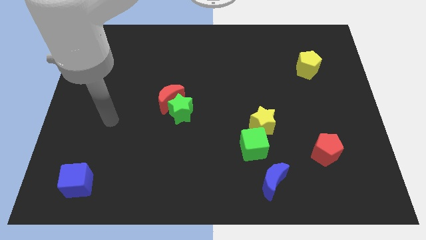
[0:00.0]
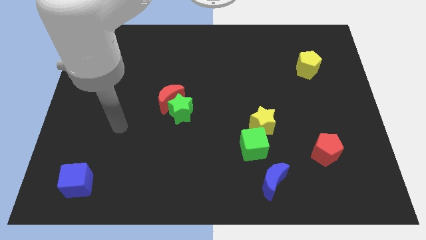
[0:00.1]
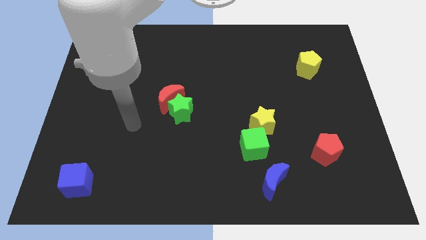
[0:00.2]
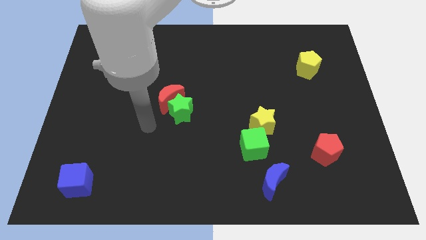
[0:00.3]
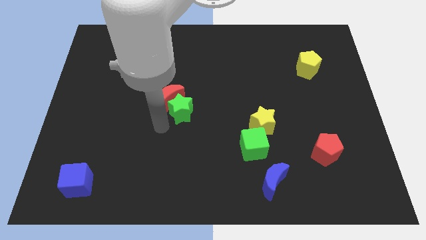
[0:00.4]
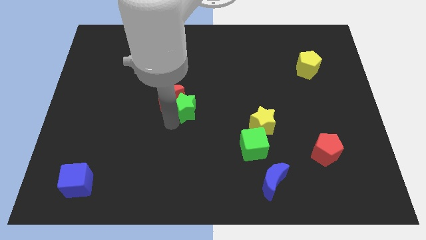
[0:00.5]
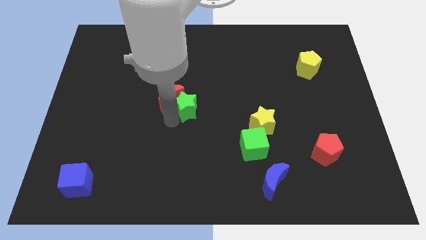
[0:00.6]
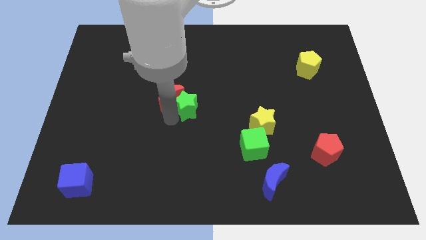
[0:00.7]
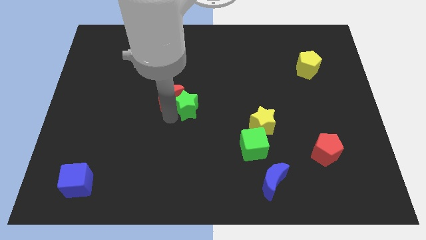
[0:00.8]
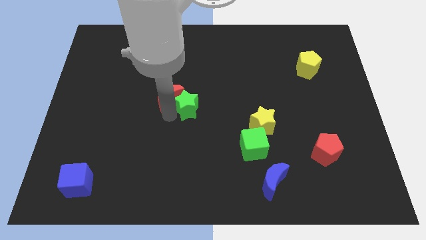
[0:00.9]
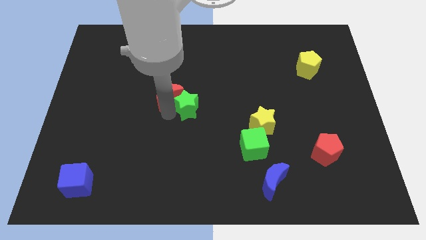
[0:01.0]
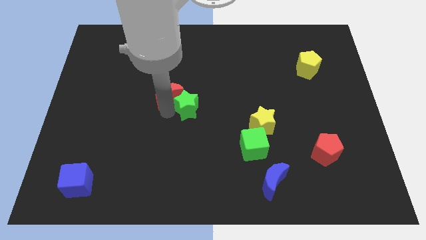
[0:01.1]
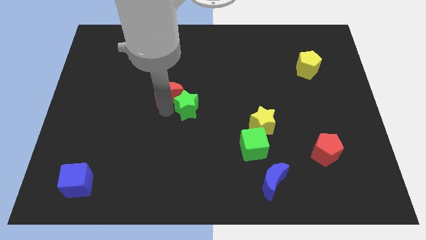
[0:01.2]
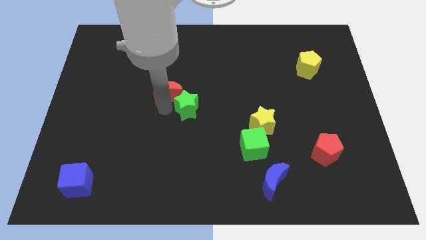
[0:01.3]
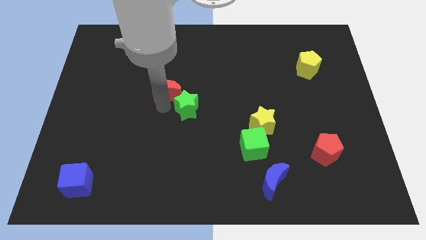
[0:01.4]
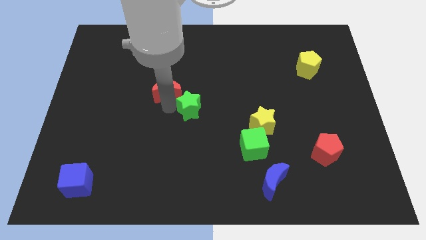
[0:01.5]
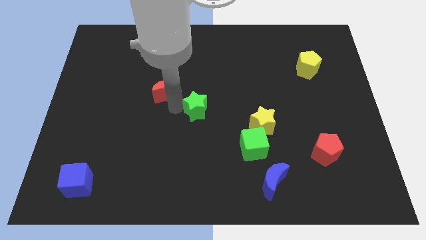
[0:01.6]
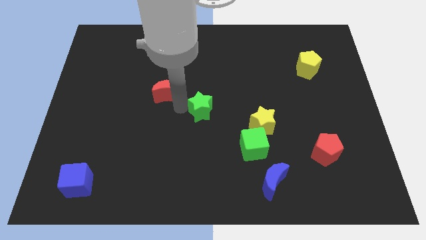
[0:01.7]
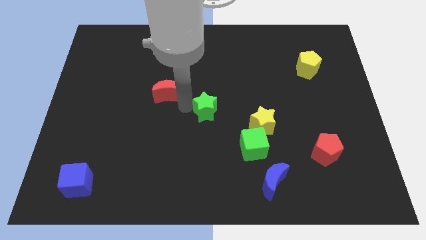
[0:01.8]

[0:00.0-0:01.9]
move the red moon away from the green star

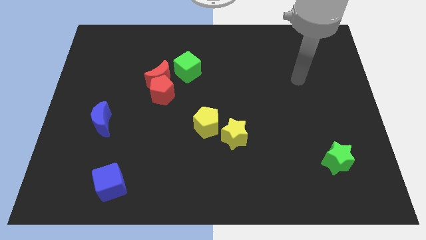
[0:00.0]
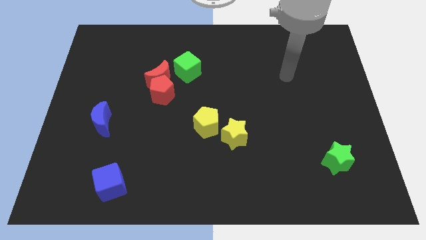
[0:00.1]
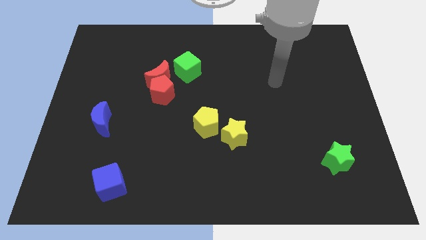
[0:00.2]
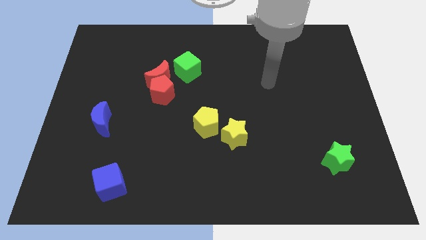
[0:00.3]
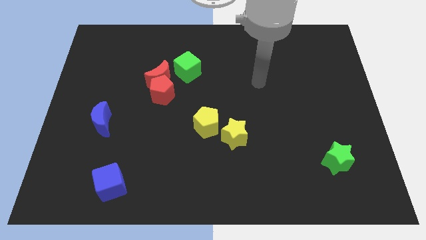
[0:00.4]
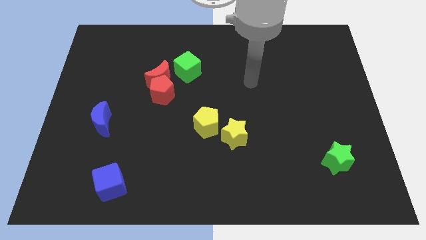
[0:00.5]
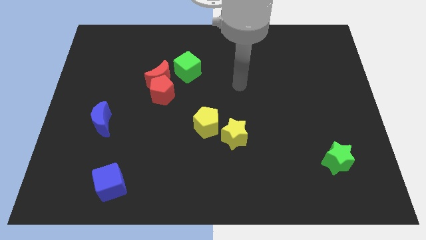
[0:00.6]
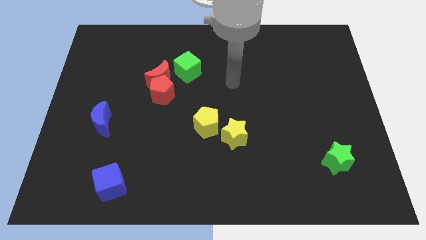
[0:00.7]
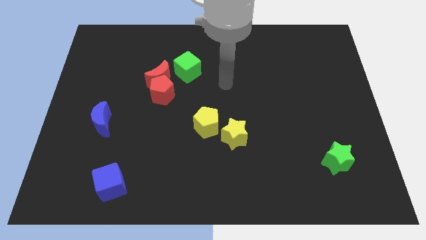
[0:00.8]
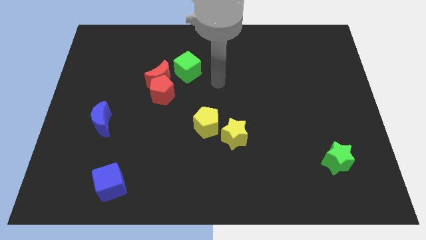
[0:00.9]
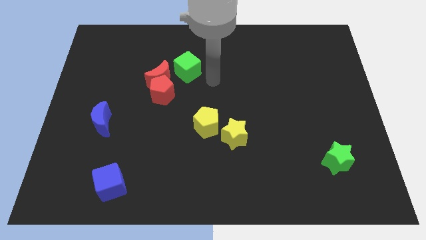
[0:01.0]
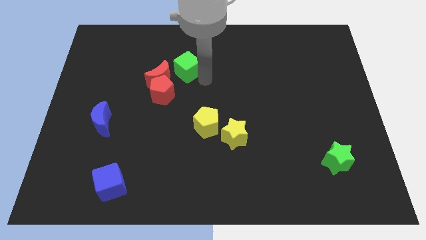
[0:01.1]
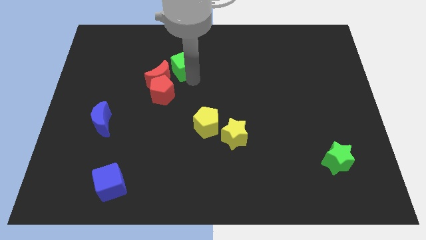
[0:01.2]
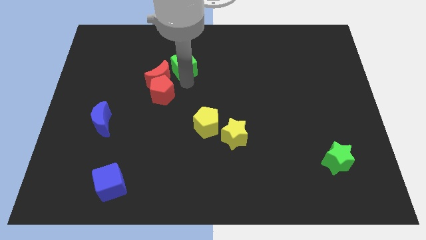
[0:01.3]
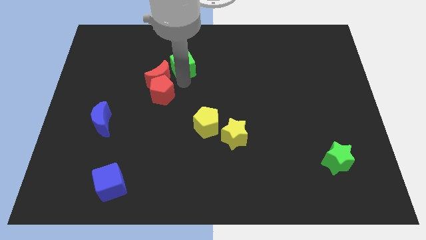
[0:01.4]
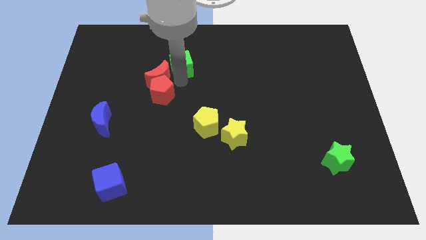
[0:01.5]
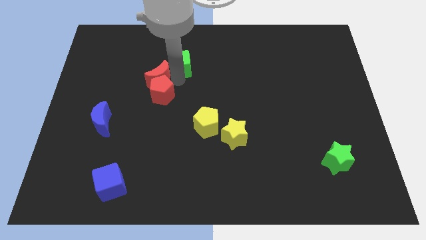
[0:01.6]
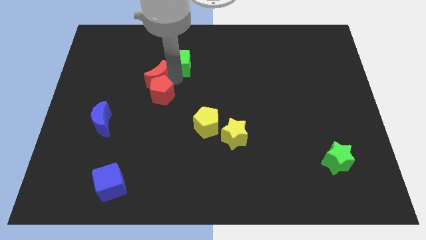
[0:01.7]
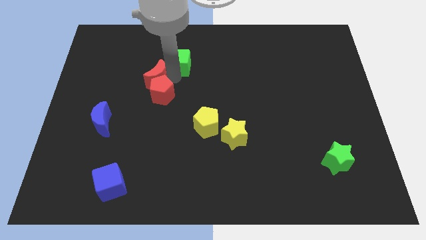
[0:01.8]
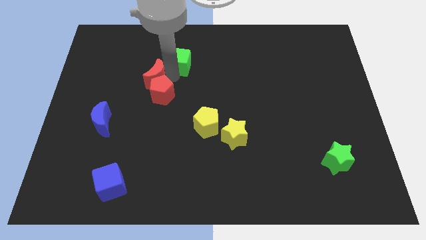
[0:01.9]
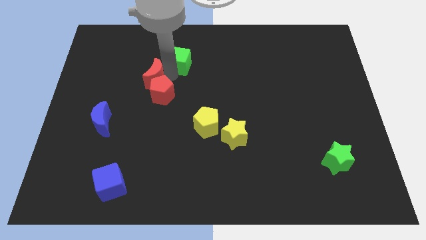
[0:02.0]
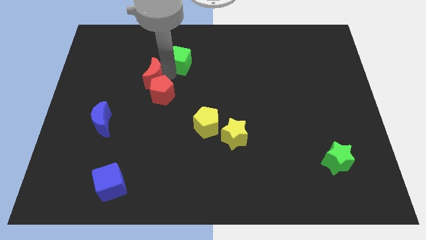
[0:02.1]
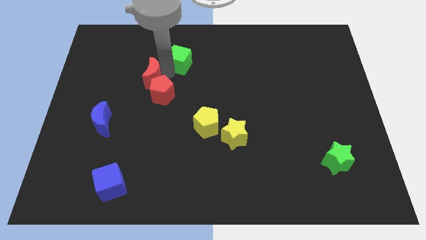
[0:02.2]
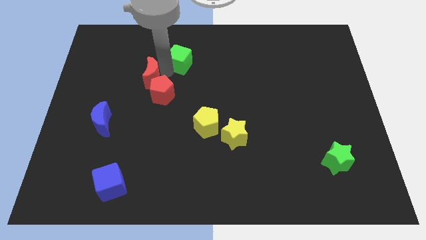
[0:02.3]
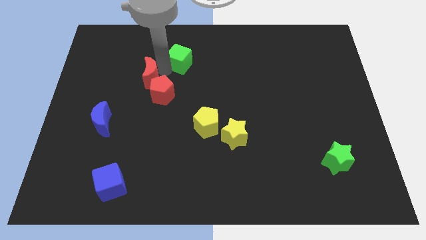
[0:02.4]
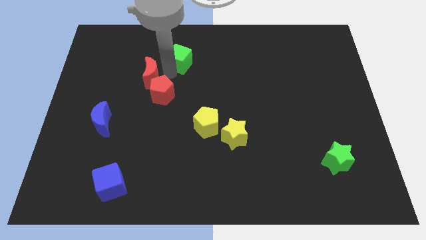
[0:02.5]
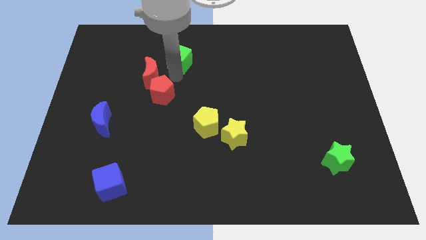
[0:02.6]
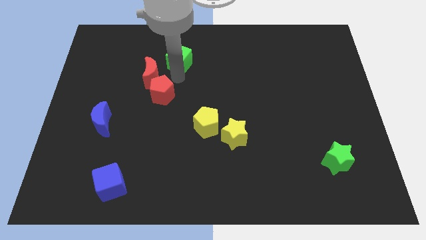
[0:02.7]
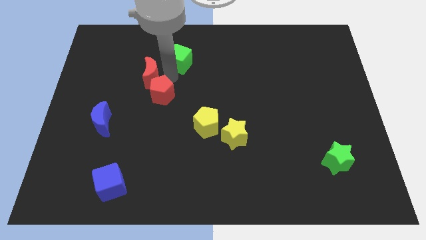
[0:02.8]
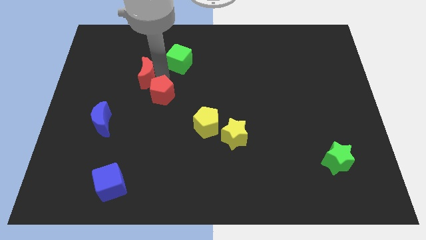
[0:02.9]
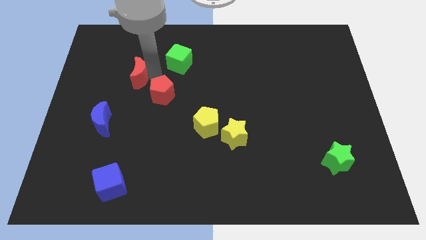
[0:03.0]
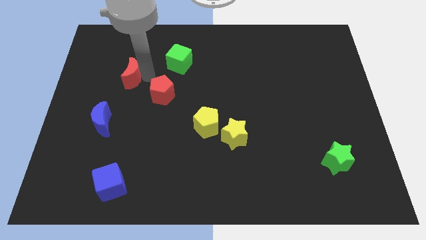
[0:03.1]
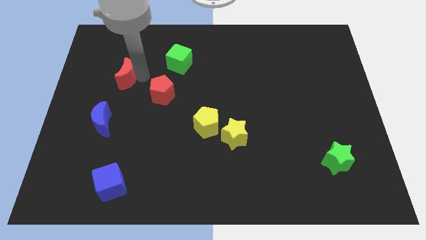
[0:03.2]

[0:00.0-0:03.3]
move the red moon away from the red pentagon and green cube

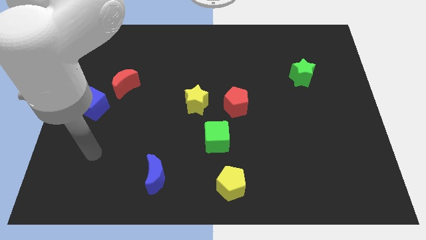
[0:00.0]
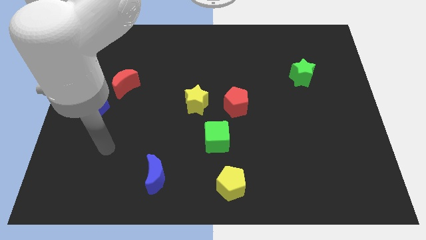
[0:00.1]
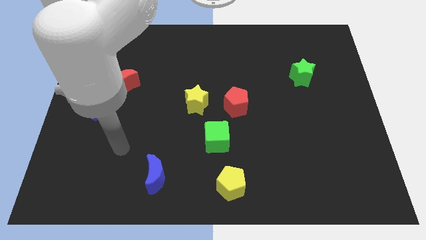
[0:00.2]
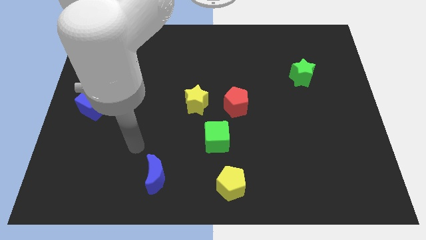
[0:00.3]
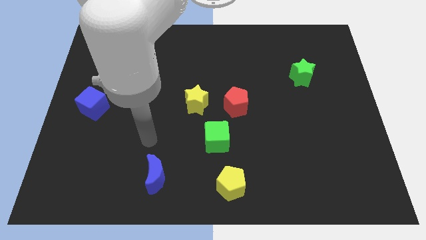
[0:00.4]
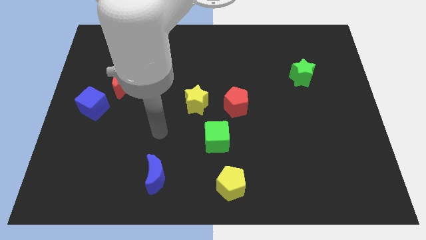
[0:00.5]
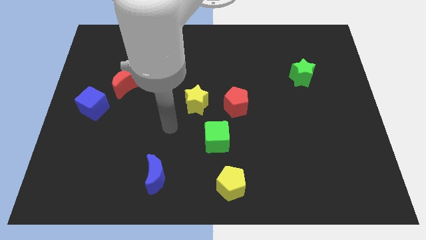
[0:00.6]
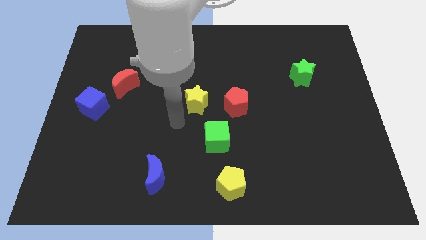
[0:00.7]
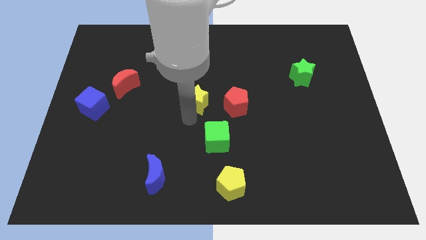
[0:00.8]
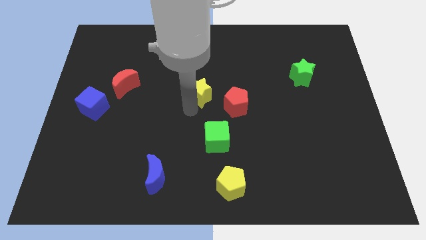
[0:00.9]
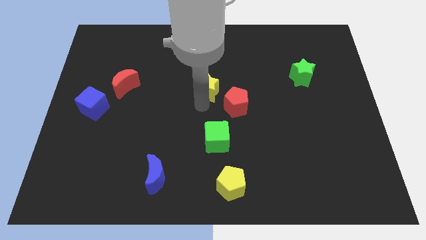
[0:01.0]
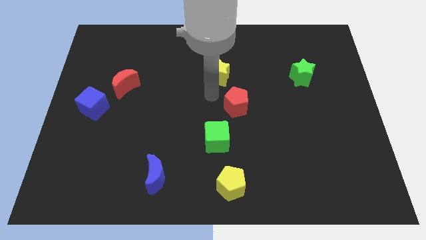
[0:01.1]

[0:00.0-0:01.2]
pull the red pentagon apart from the yellow star

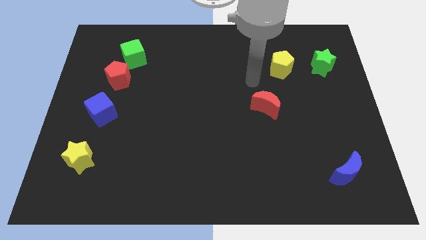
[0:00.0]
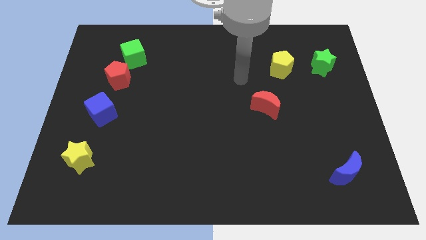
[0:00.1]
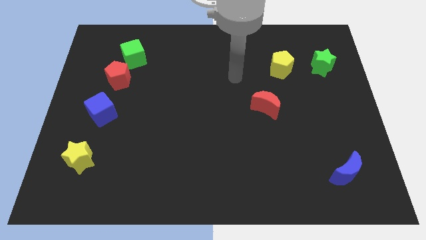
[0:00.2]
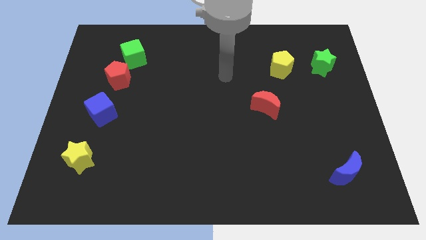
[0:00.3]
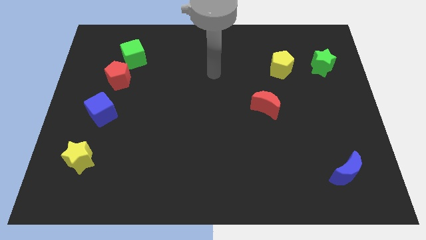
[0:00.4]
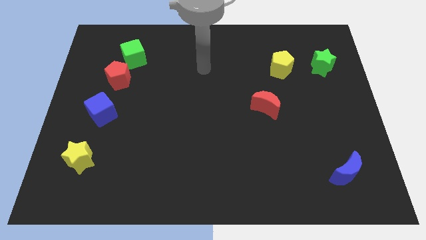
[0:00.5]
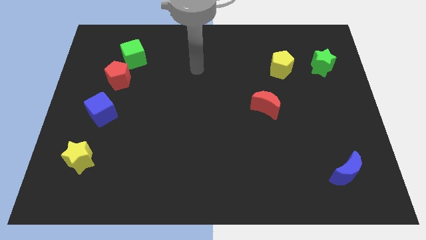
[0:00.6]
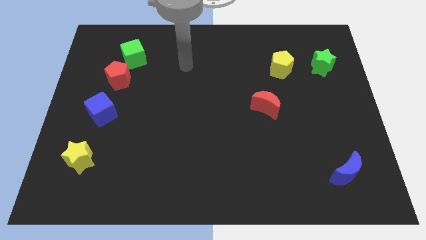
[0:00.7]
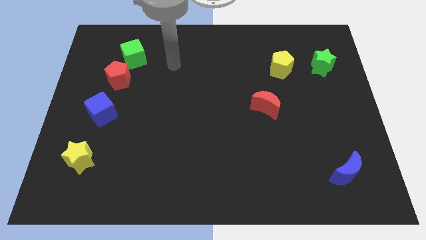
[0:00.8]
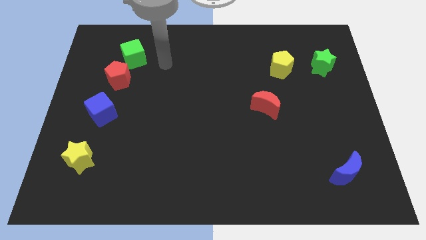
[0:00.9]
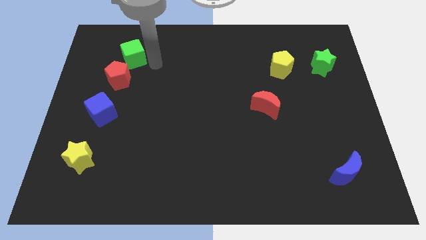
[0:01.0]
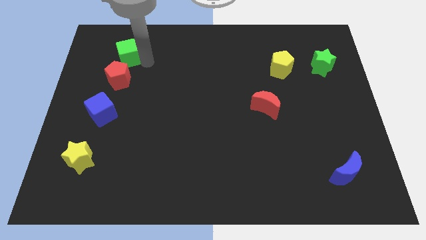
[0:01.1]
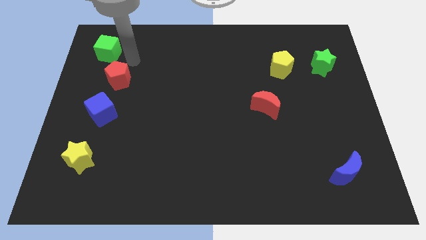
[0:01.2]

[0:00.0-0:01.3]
move the red pentagon away from the green cube

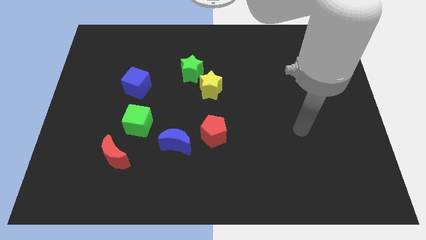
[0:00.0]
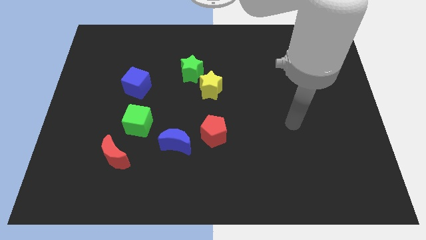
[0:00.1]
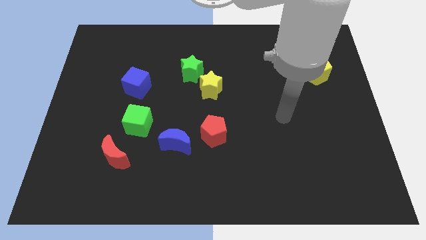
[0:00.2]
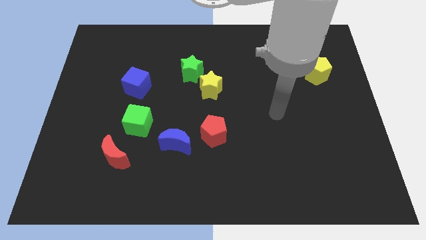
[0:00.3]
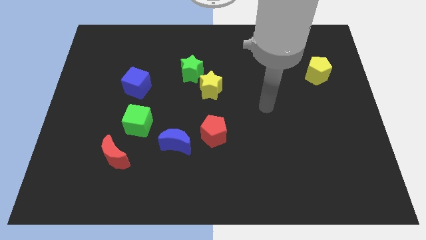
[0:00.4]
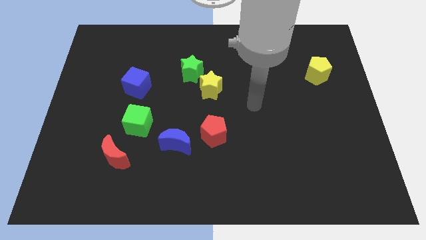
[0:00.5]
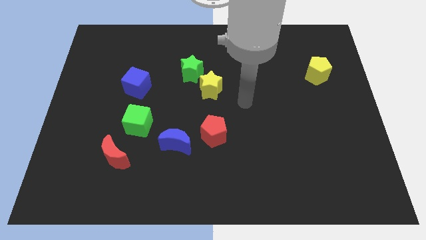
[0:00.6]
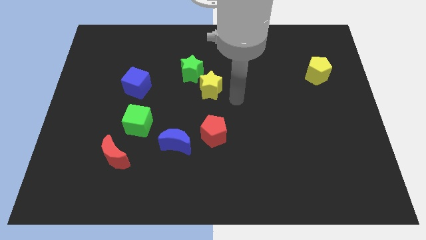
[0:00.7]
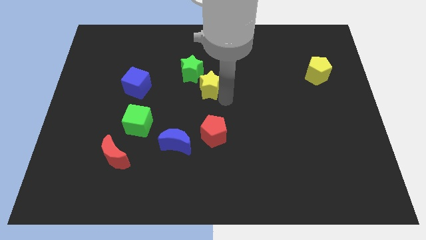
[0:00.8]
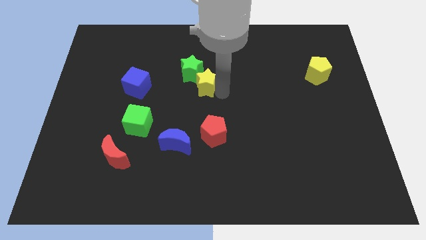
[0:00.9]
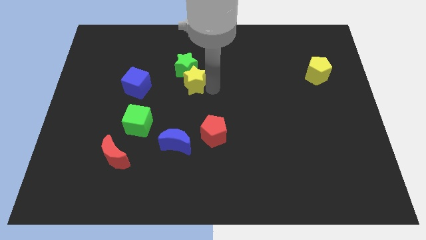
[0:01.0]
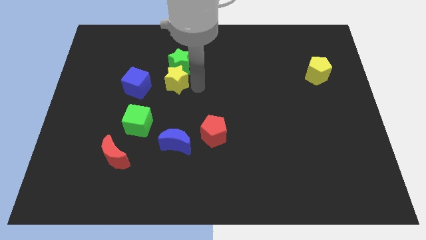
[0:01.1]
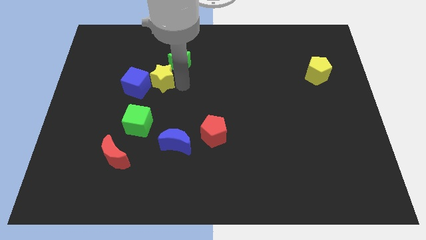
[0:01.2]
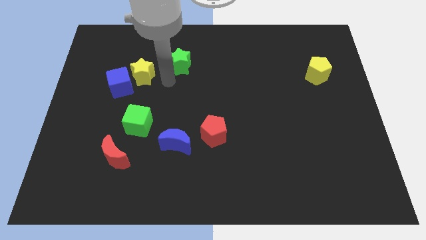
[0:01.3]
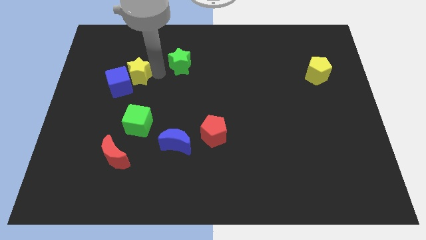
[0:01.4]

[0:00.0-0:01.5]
pull the green star apart from the yellow star

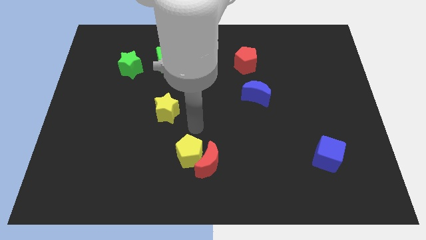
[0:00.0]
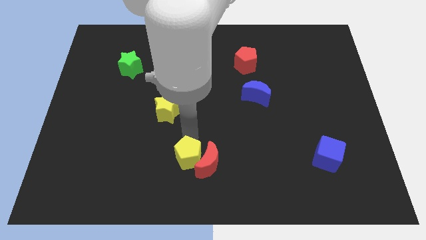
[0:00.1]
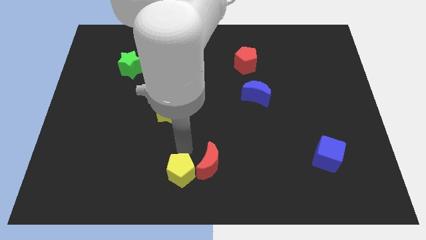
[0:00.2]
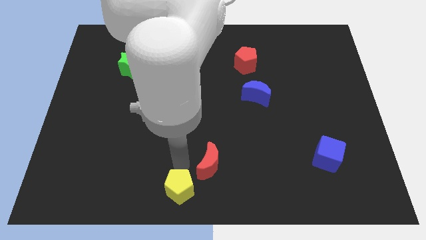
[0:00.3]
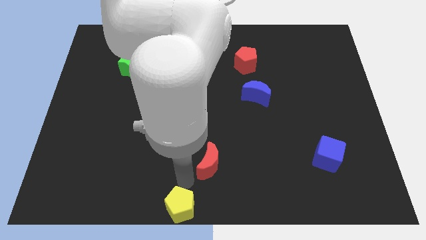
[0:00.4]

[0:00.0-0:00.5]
separate the red moon from the yellow pentagon
